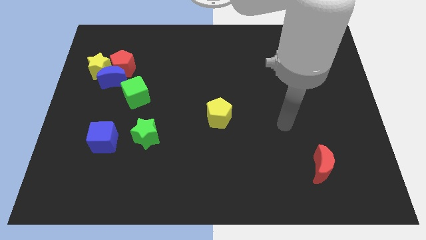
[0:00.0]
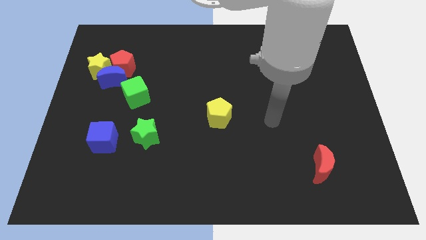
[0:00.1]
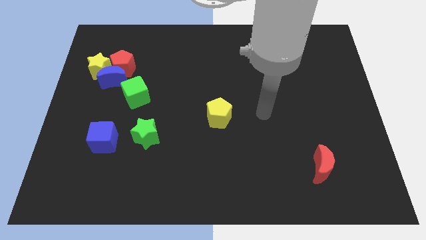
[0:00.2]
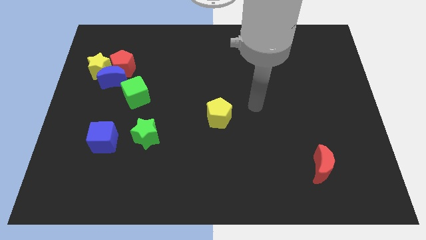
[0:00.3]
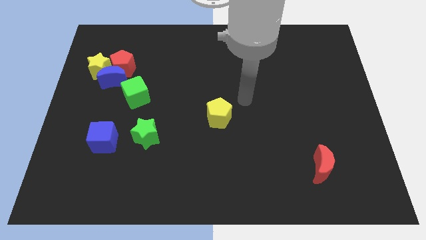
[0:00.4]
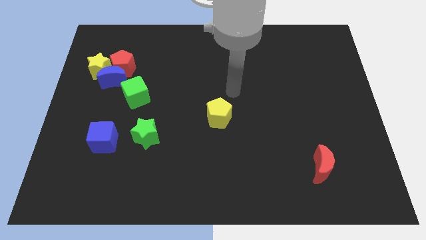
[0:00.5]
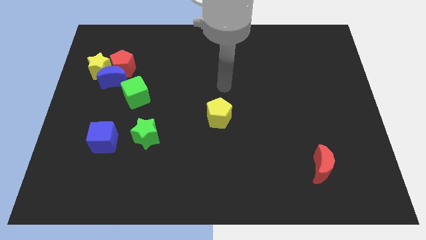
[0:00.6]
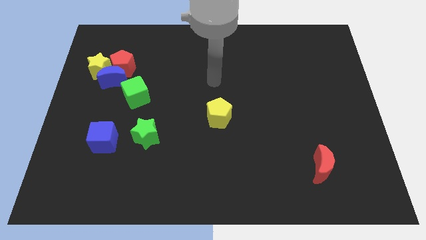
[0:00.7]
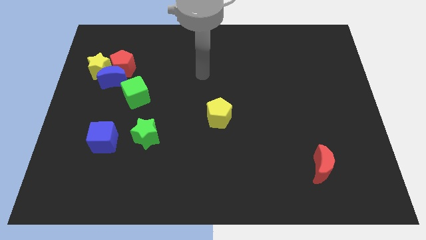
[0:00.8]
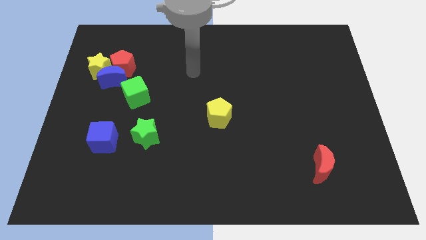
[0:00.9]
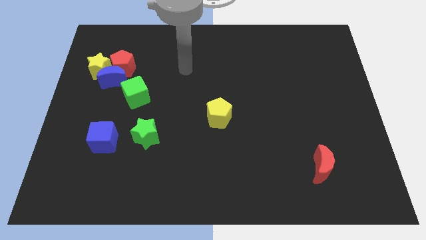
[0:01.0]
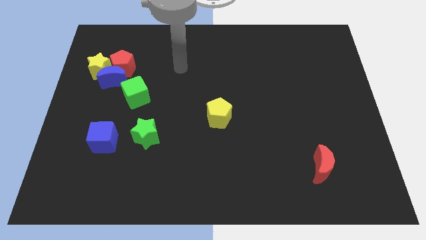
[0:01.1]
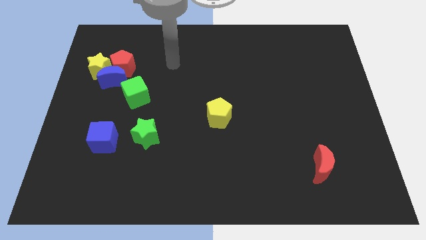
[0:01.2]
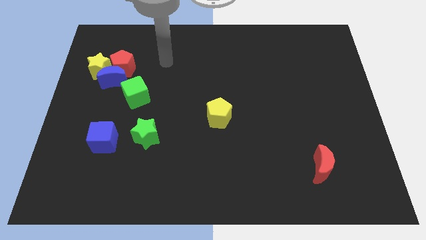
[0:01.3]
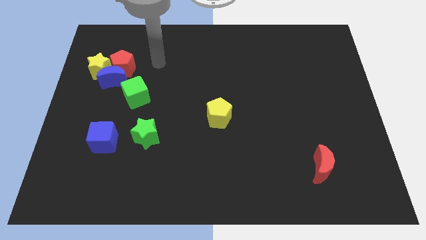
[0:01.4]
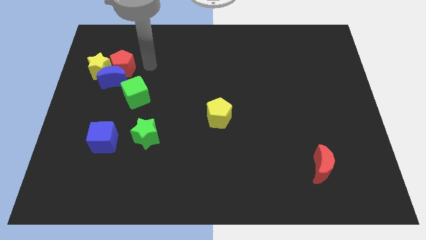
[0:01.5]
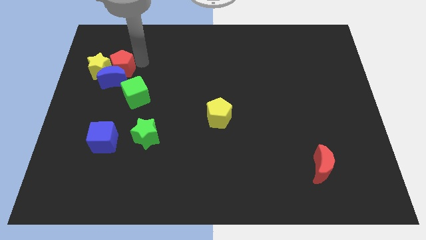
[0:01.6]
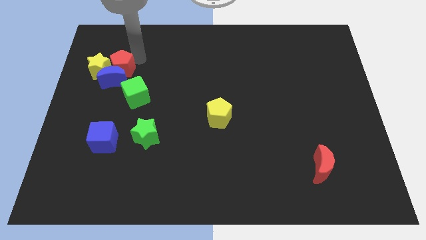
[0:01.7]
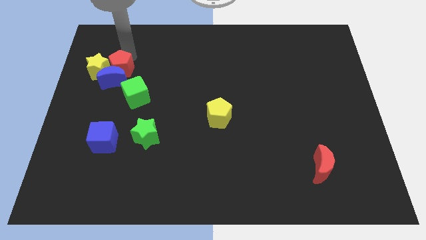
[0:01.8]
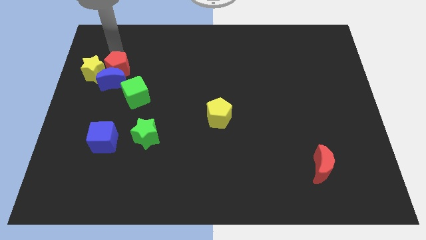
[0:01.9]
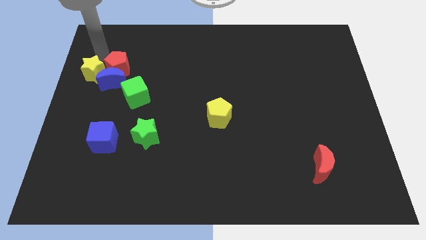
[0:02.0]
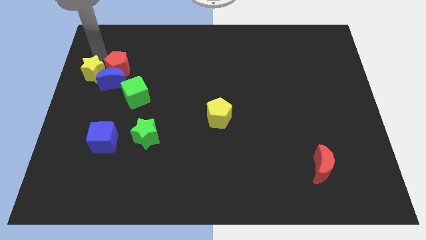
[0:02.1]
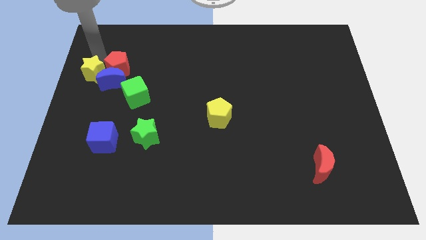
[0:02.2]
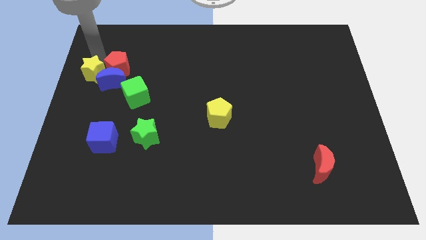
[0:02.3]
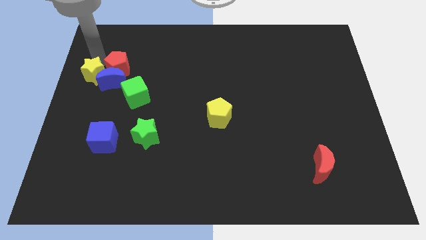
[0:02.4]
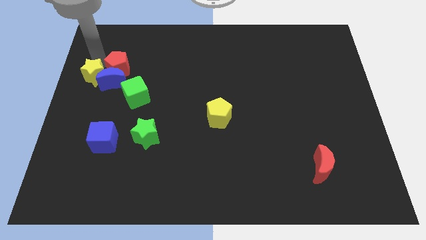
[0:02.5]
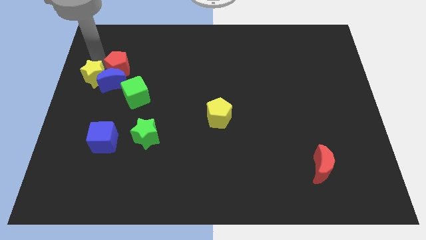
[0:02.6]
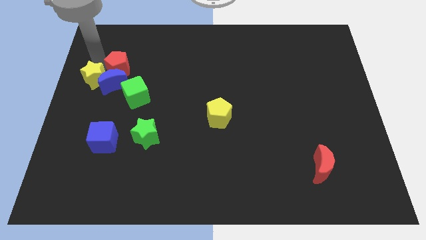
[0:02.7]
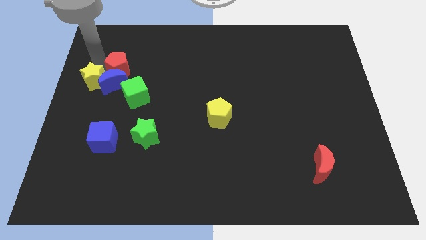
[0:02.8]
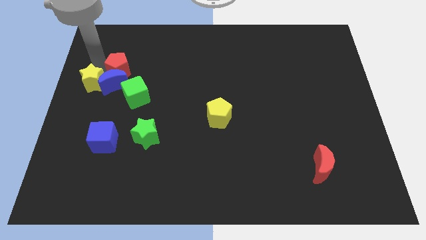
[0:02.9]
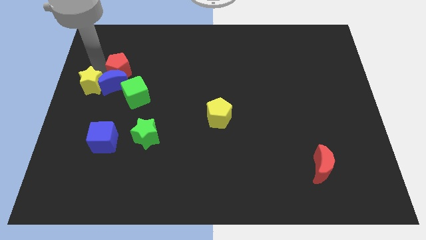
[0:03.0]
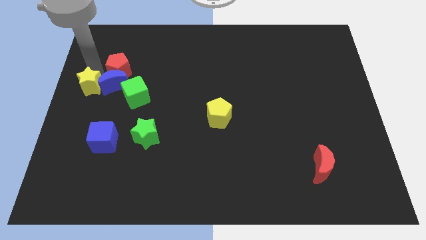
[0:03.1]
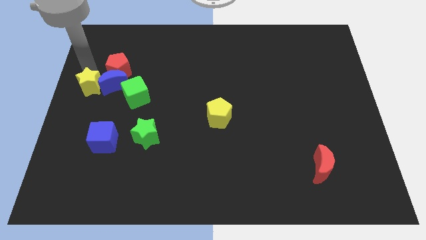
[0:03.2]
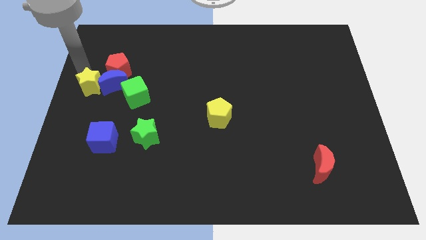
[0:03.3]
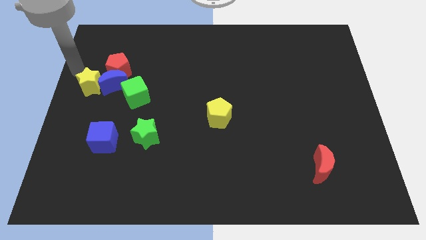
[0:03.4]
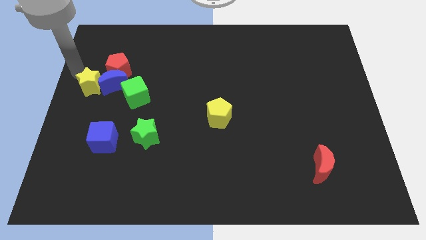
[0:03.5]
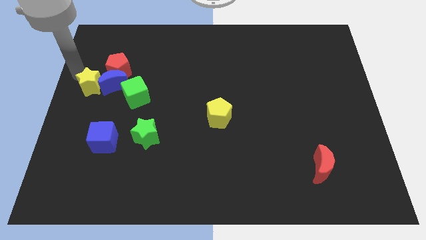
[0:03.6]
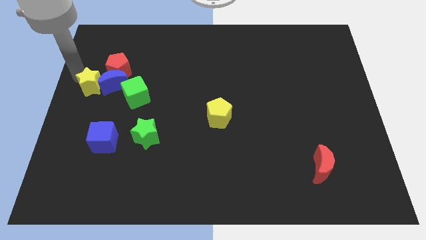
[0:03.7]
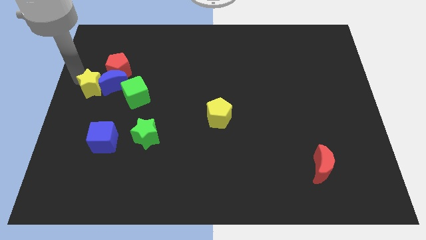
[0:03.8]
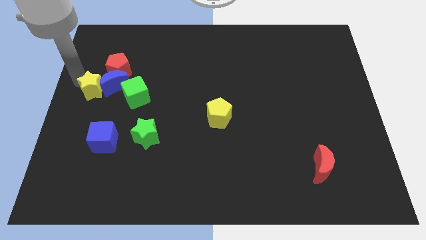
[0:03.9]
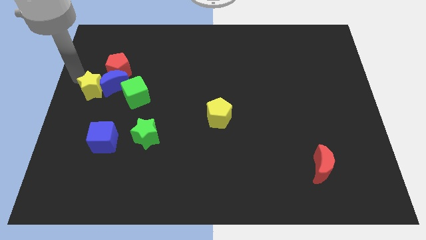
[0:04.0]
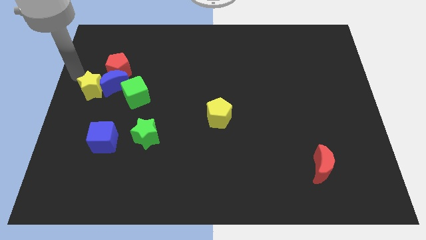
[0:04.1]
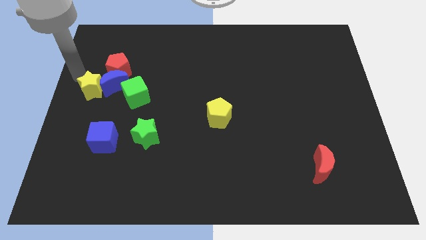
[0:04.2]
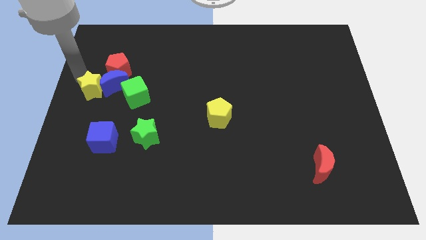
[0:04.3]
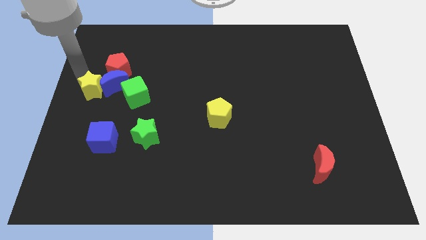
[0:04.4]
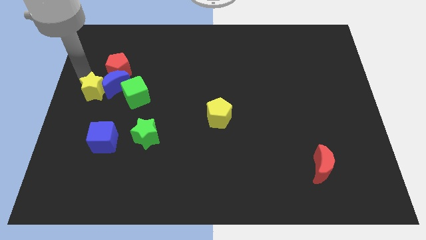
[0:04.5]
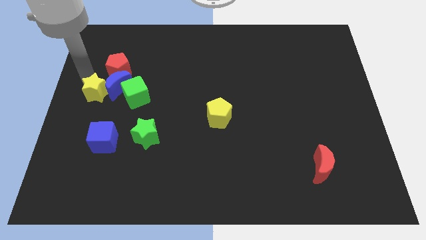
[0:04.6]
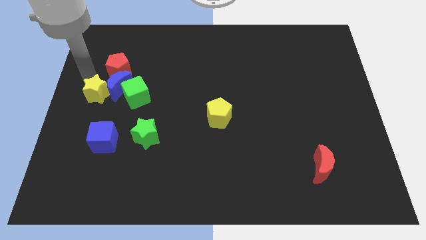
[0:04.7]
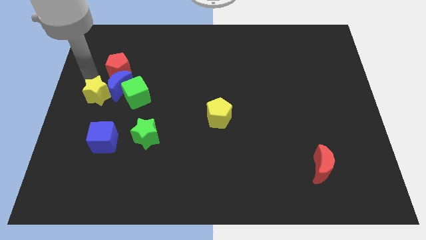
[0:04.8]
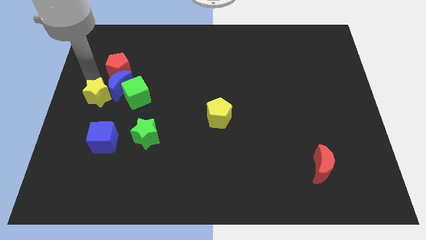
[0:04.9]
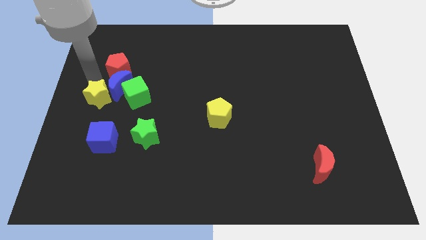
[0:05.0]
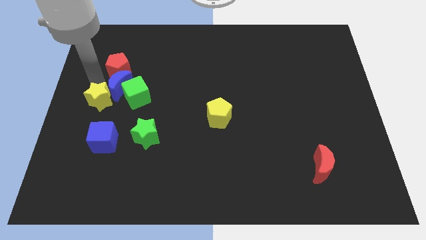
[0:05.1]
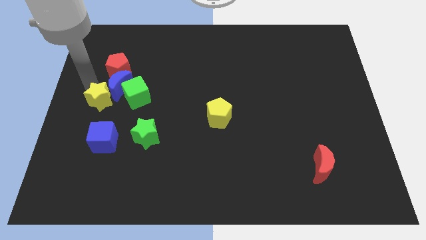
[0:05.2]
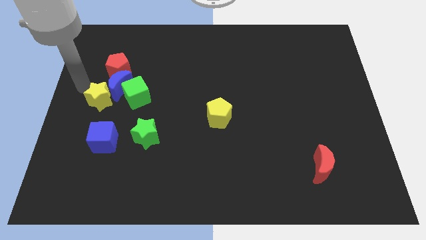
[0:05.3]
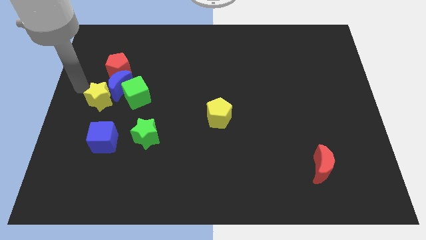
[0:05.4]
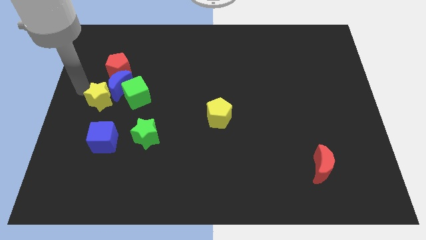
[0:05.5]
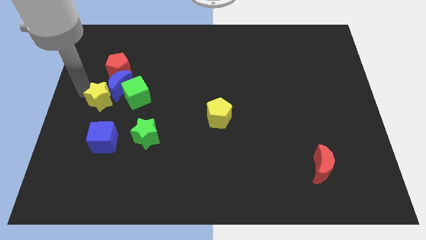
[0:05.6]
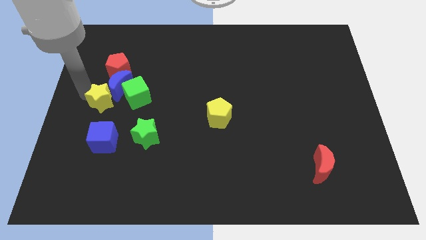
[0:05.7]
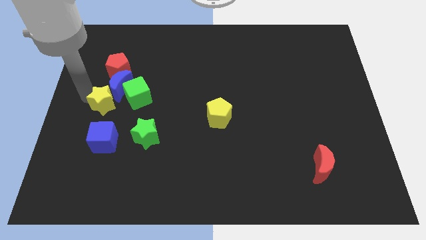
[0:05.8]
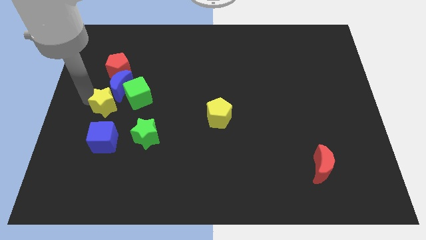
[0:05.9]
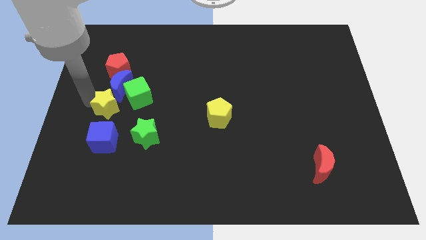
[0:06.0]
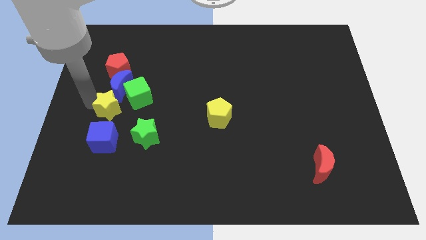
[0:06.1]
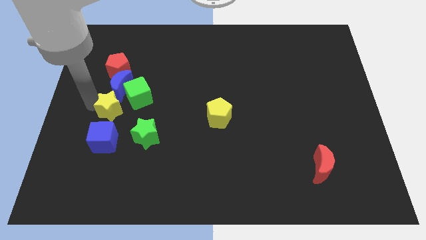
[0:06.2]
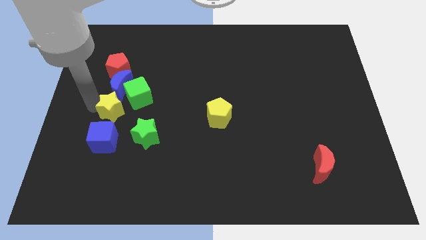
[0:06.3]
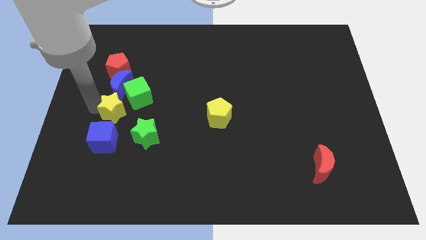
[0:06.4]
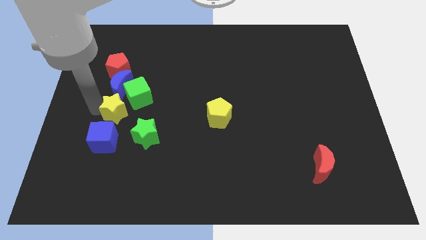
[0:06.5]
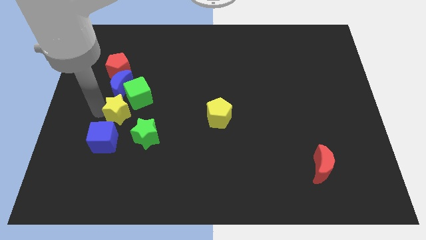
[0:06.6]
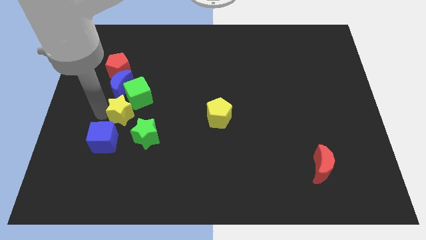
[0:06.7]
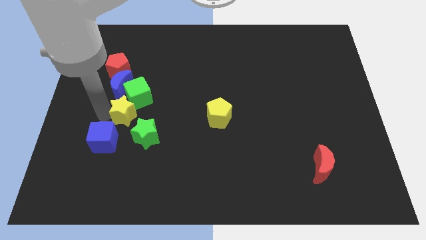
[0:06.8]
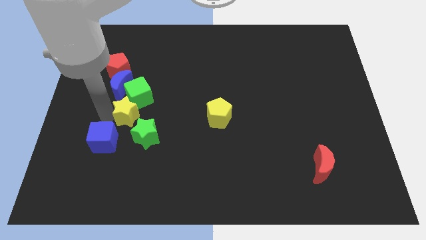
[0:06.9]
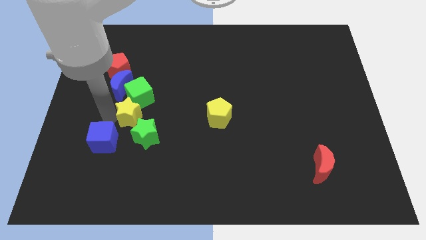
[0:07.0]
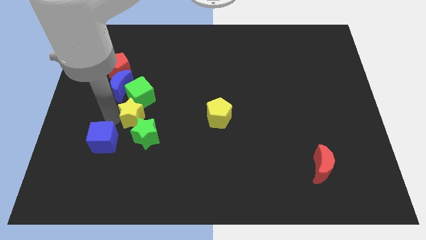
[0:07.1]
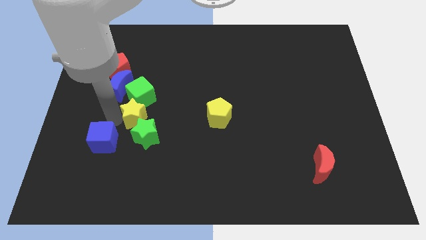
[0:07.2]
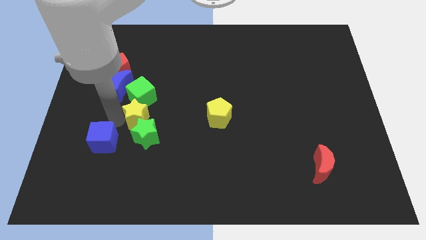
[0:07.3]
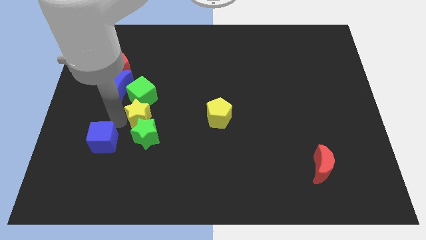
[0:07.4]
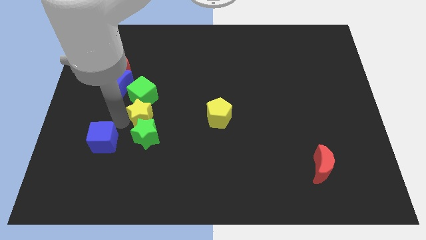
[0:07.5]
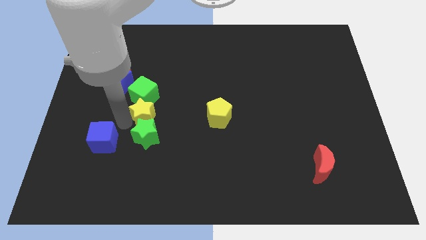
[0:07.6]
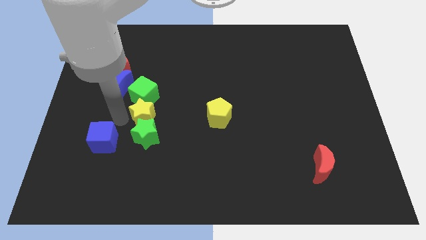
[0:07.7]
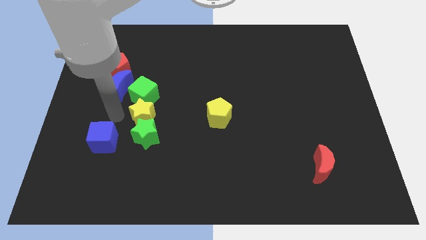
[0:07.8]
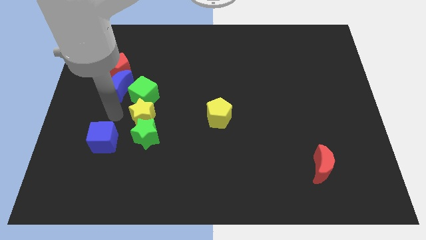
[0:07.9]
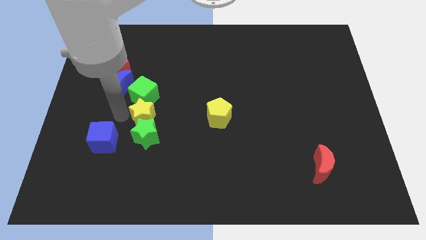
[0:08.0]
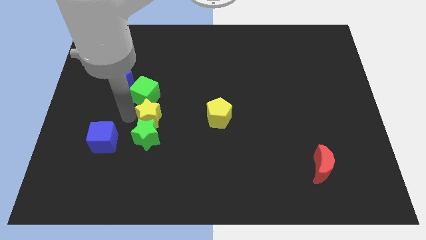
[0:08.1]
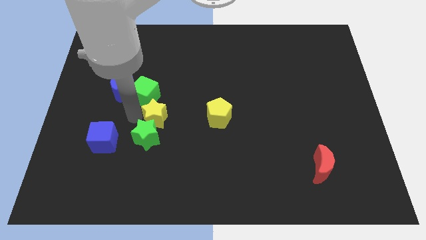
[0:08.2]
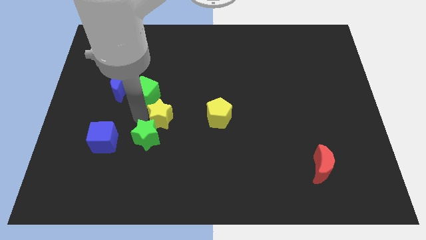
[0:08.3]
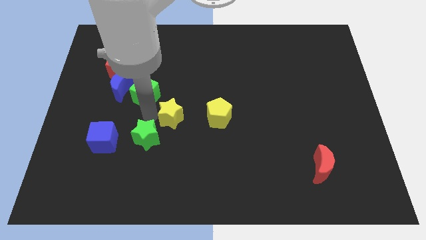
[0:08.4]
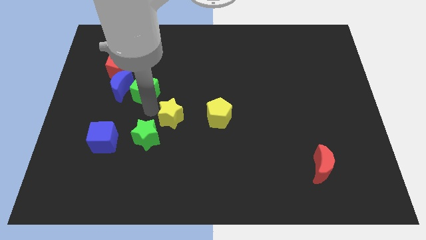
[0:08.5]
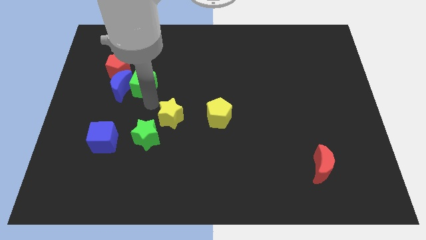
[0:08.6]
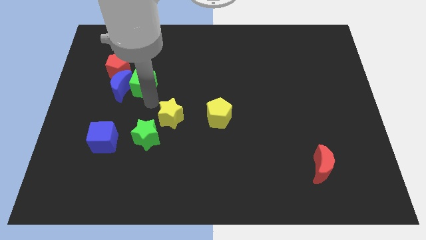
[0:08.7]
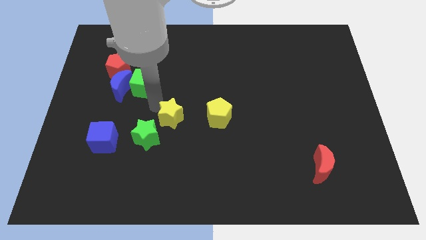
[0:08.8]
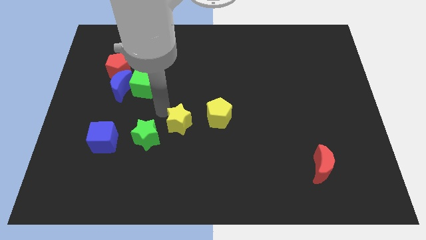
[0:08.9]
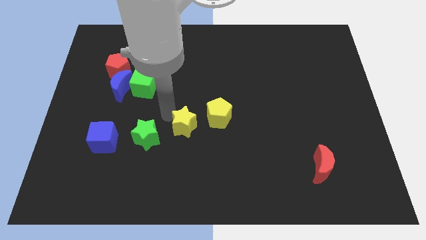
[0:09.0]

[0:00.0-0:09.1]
put the yellow star to the bottom left side of the yellow pentagon
